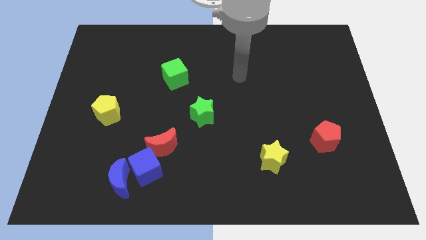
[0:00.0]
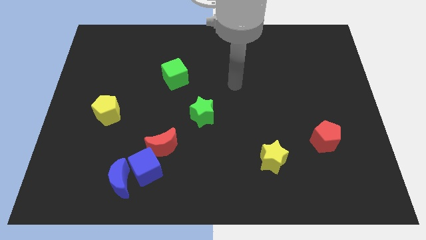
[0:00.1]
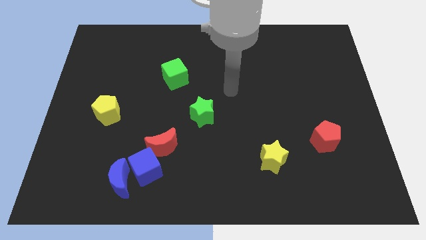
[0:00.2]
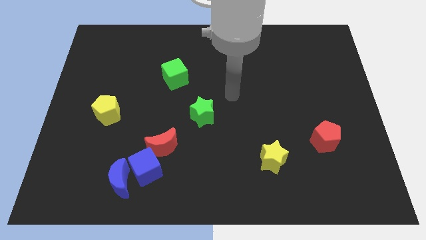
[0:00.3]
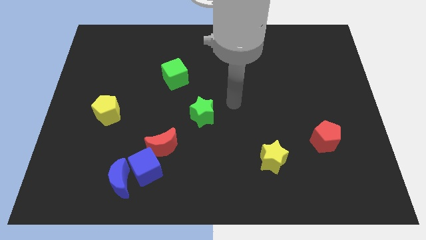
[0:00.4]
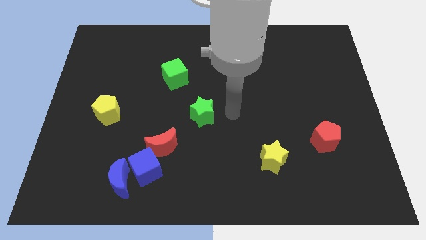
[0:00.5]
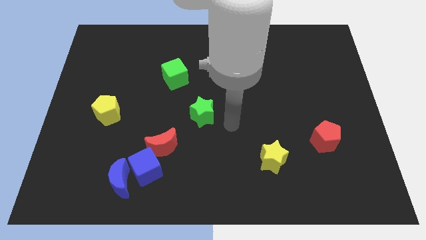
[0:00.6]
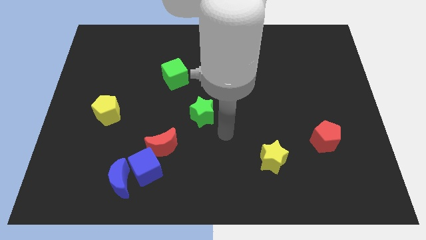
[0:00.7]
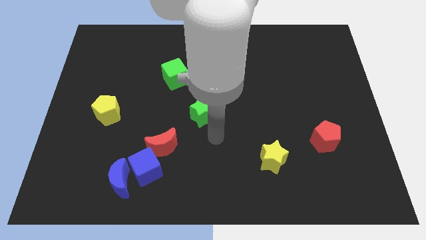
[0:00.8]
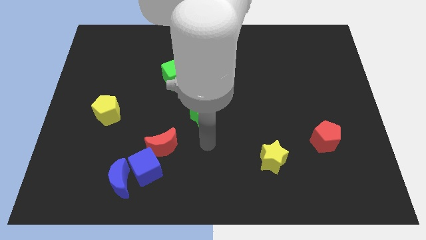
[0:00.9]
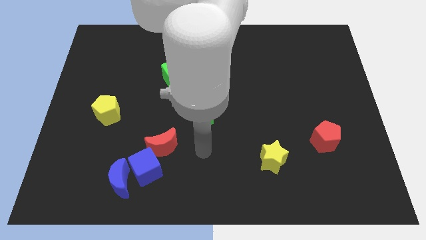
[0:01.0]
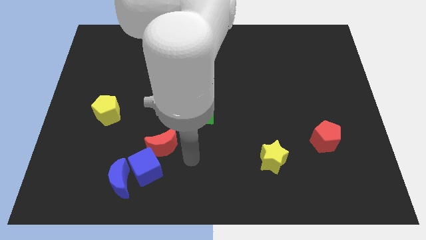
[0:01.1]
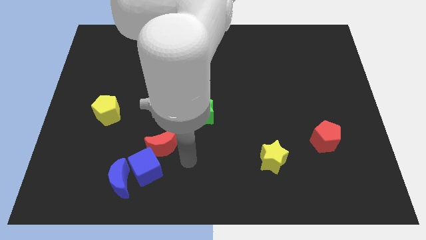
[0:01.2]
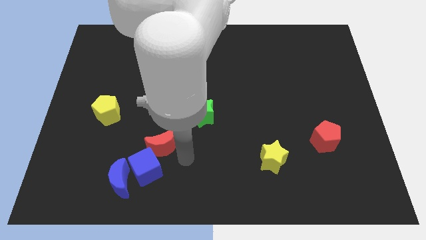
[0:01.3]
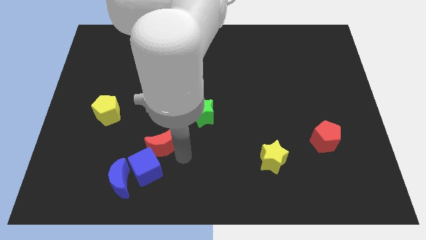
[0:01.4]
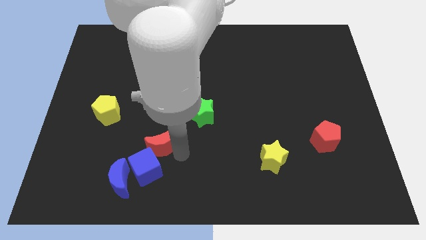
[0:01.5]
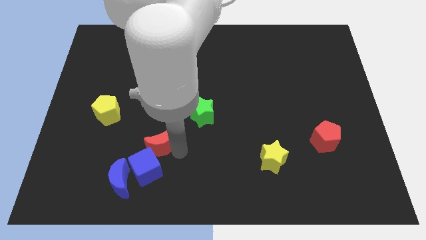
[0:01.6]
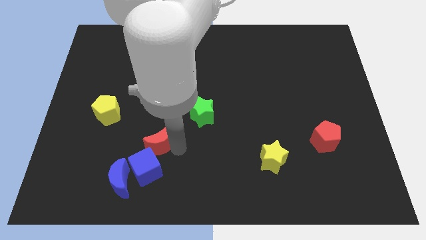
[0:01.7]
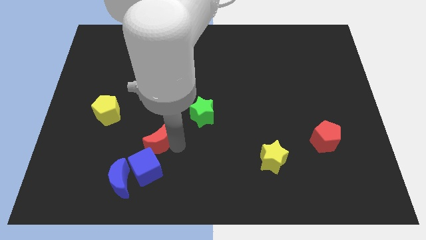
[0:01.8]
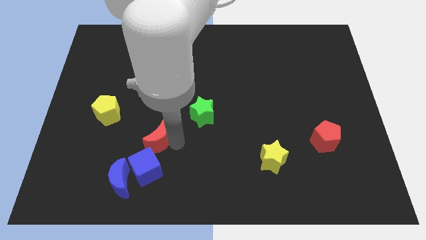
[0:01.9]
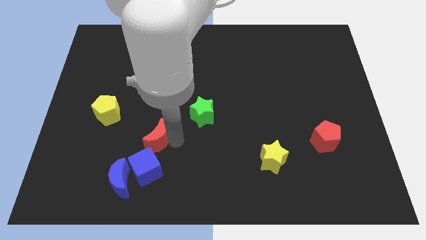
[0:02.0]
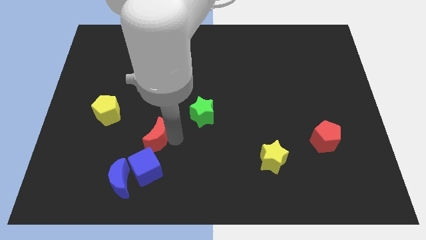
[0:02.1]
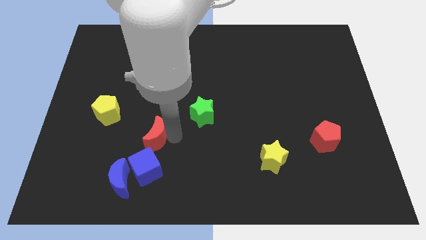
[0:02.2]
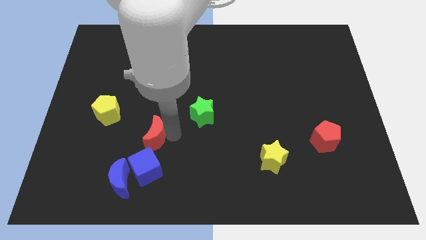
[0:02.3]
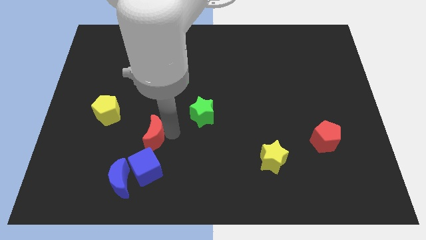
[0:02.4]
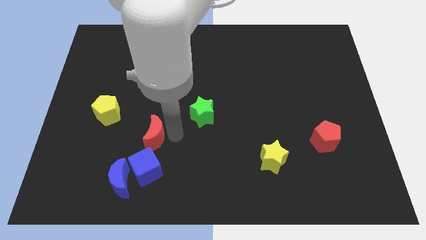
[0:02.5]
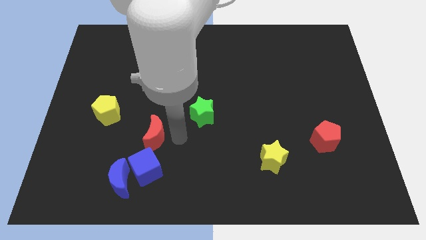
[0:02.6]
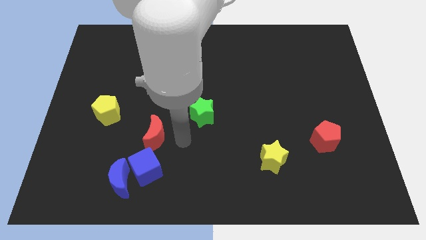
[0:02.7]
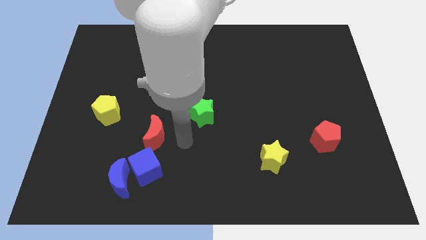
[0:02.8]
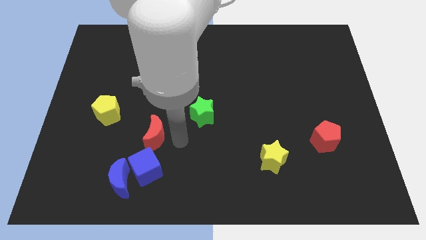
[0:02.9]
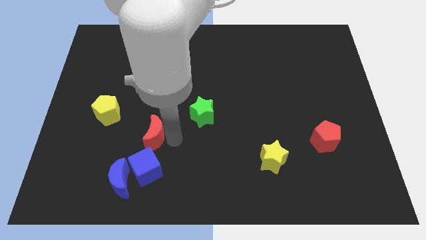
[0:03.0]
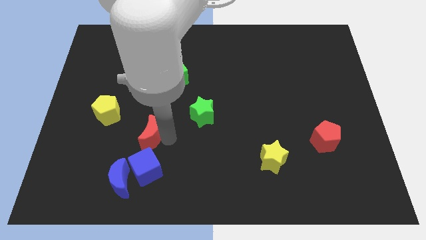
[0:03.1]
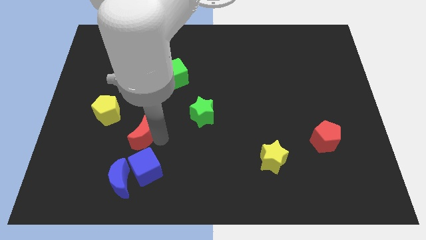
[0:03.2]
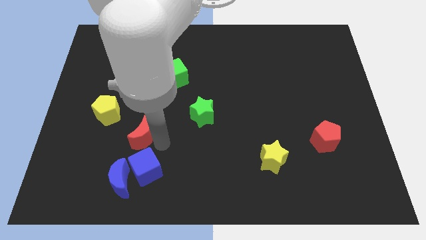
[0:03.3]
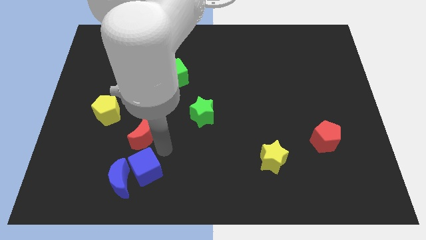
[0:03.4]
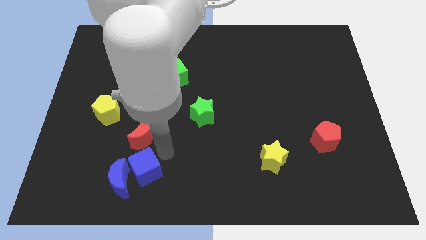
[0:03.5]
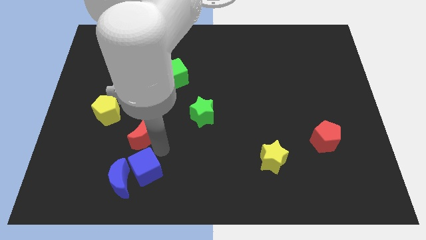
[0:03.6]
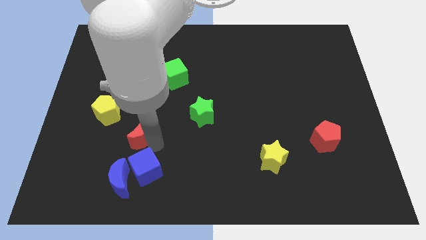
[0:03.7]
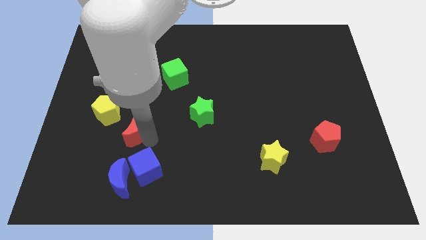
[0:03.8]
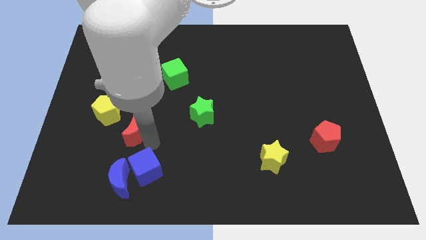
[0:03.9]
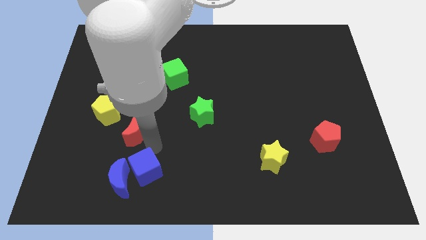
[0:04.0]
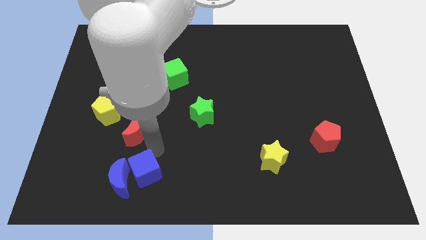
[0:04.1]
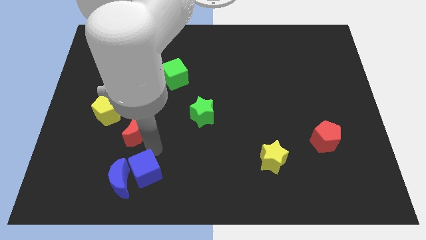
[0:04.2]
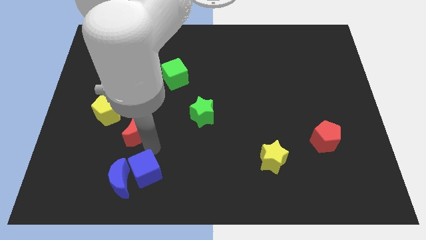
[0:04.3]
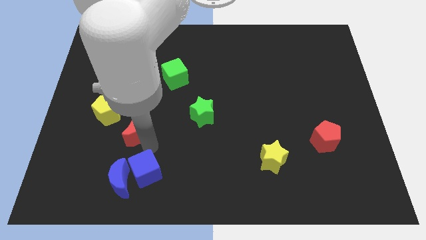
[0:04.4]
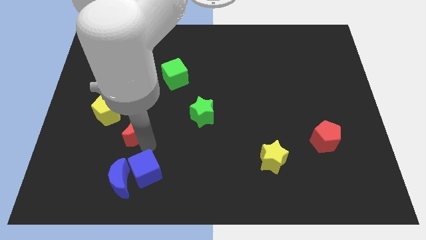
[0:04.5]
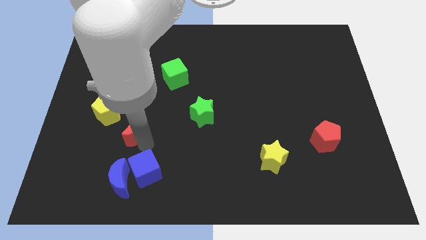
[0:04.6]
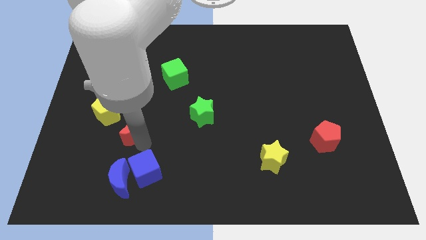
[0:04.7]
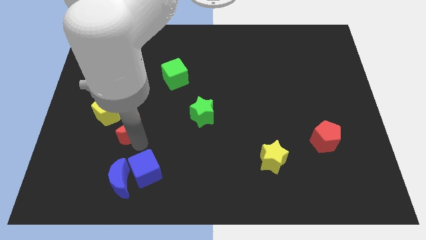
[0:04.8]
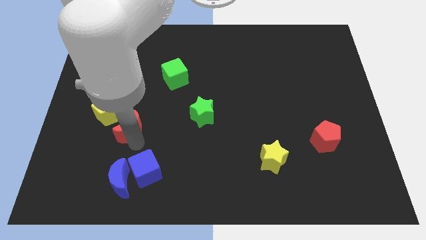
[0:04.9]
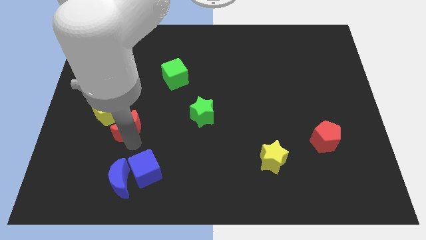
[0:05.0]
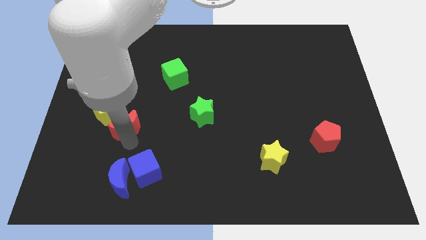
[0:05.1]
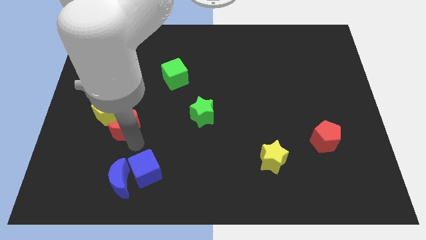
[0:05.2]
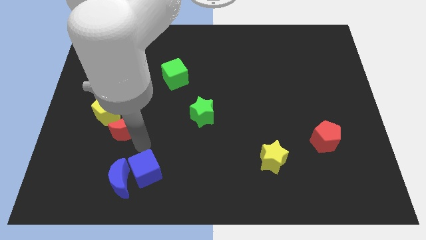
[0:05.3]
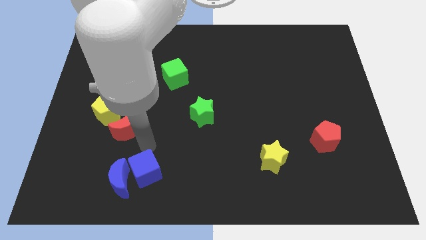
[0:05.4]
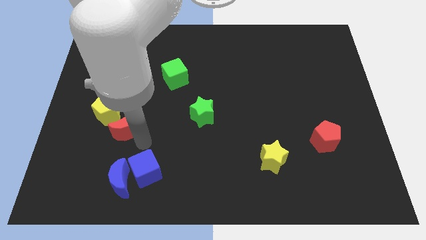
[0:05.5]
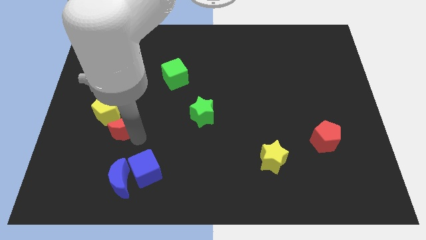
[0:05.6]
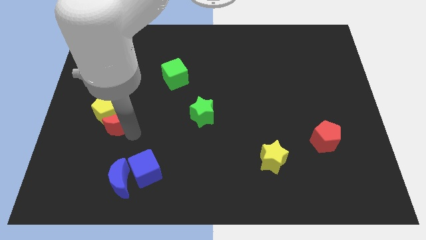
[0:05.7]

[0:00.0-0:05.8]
push the red moon towards the yellow pentagon

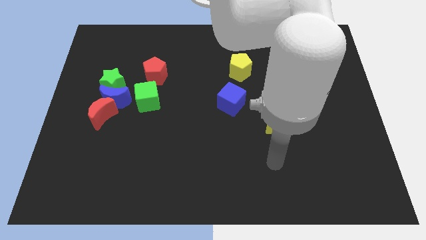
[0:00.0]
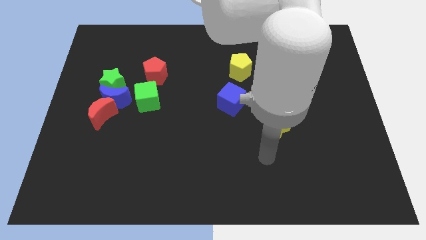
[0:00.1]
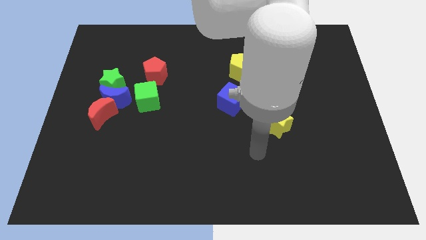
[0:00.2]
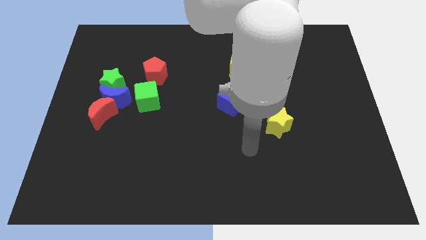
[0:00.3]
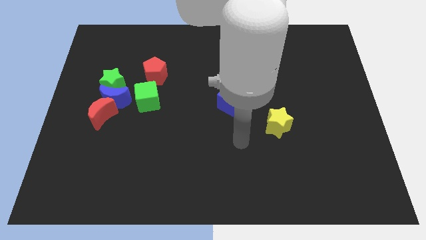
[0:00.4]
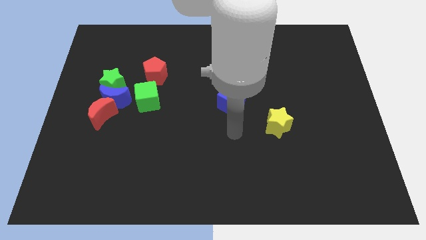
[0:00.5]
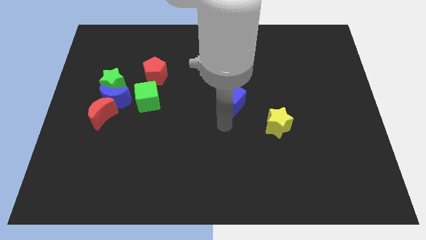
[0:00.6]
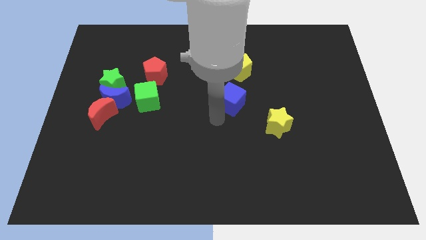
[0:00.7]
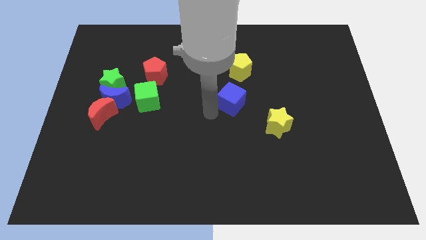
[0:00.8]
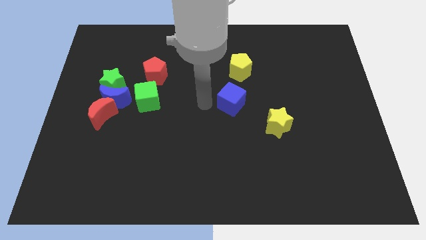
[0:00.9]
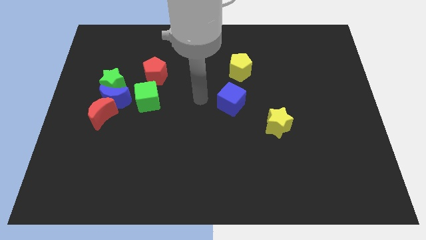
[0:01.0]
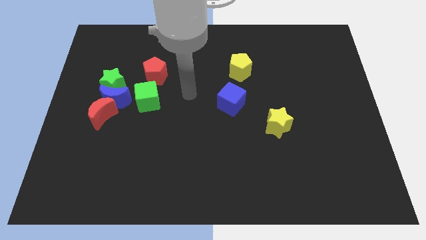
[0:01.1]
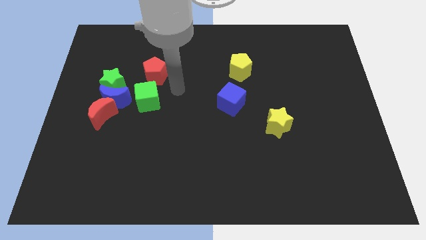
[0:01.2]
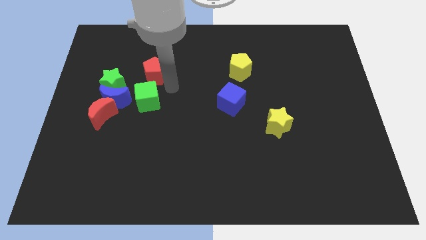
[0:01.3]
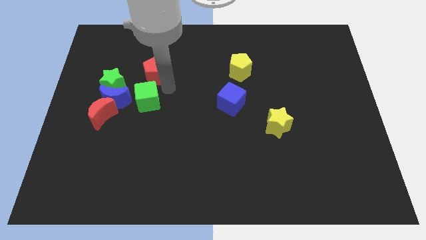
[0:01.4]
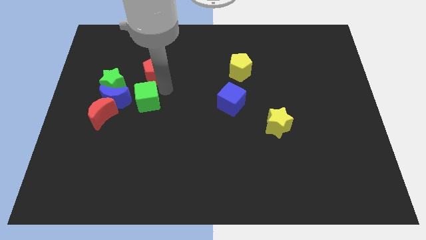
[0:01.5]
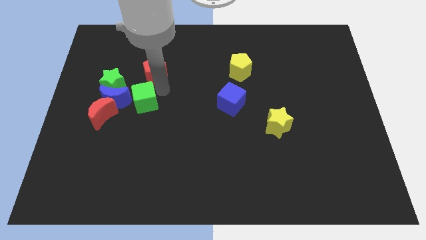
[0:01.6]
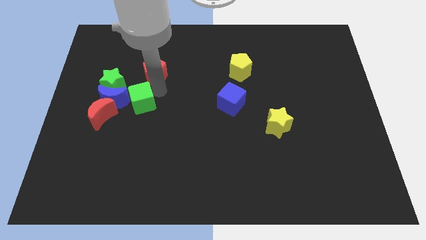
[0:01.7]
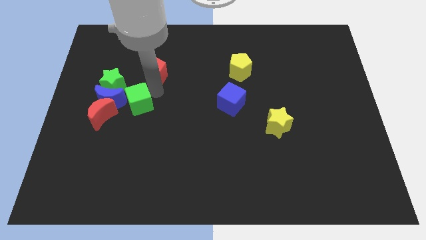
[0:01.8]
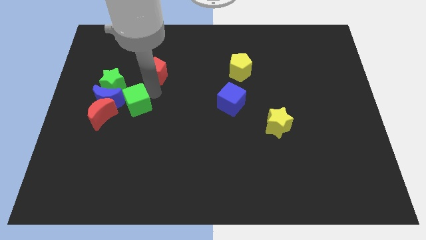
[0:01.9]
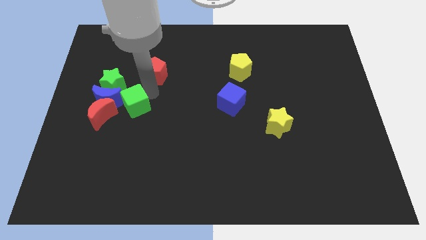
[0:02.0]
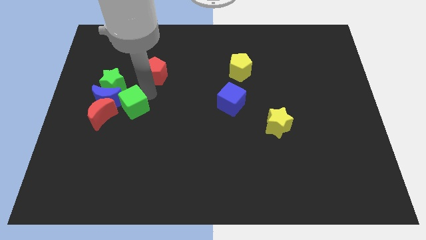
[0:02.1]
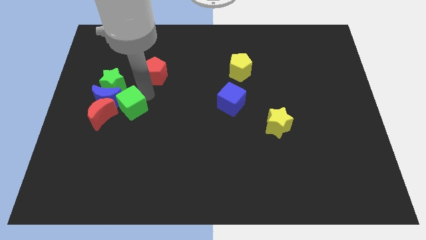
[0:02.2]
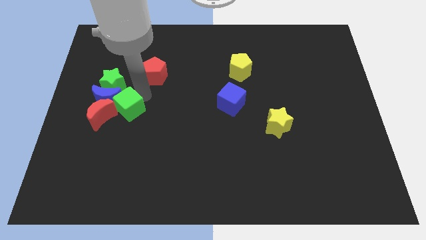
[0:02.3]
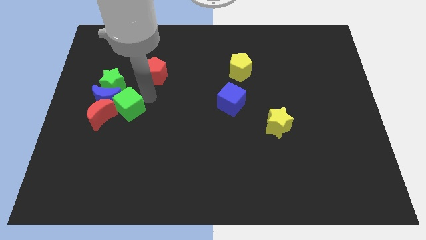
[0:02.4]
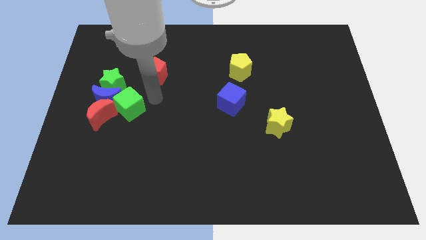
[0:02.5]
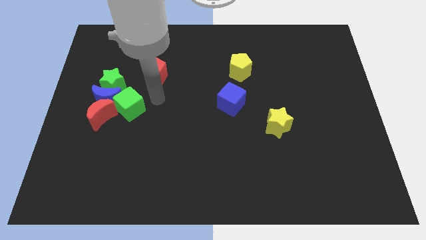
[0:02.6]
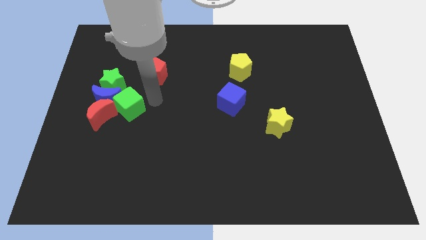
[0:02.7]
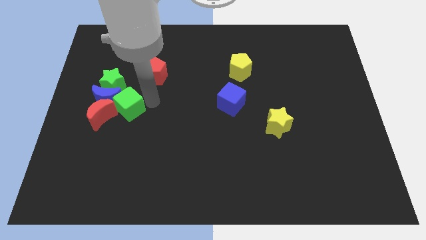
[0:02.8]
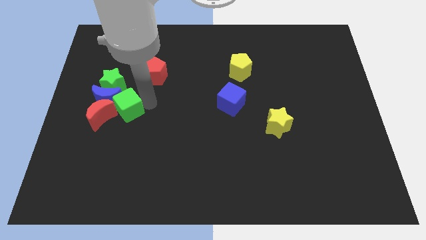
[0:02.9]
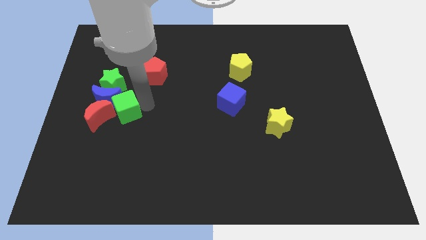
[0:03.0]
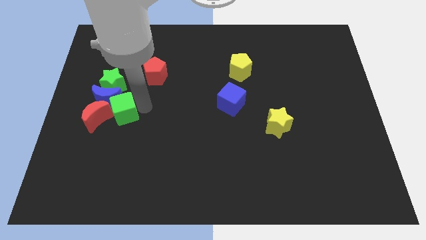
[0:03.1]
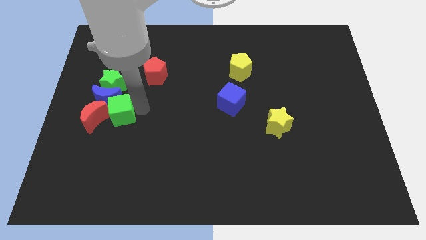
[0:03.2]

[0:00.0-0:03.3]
push the green cube next to the red moon
